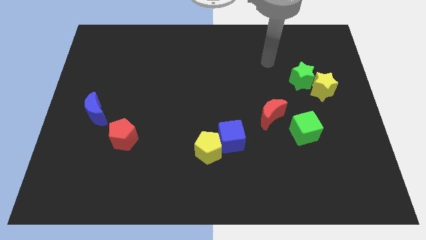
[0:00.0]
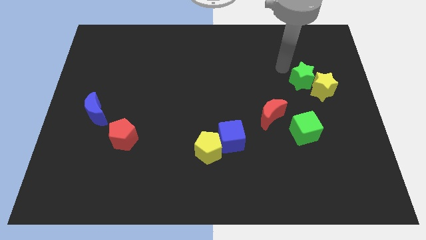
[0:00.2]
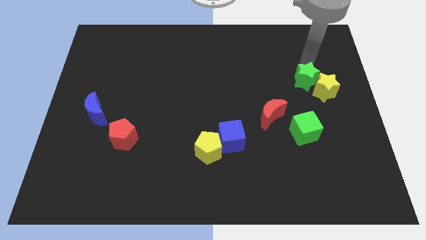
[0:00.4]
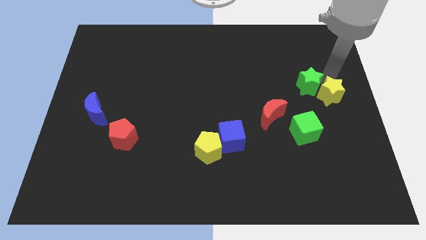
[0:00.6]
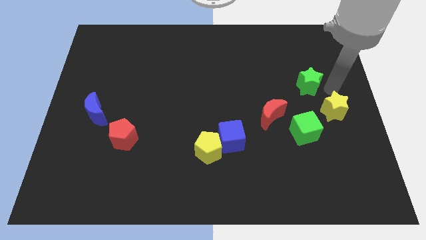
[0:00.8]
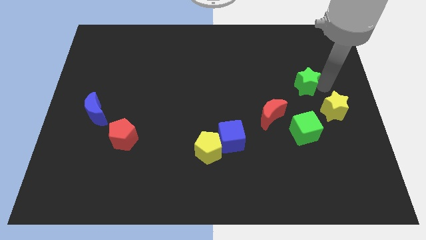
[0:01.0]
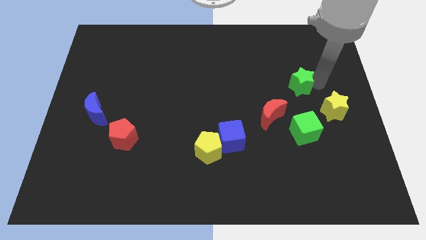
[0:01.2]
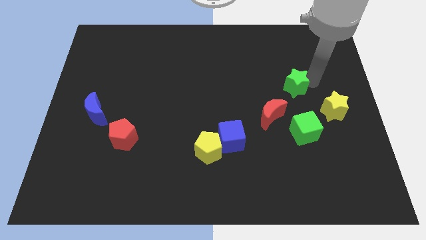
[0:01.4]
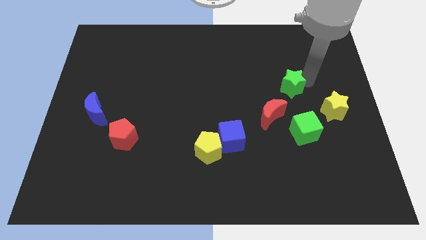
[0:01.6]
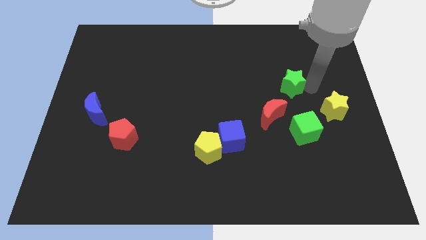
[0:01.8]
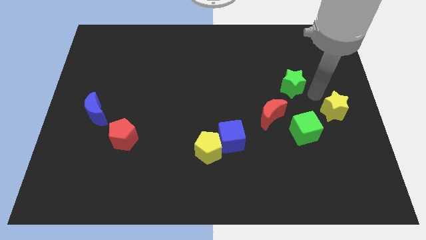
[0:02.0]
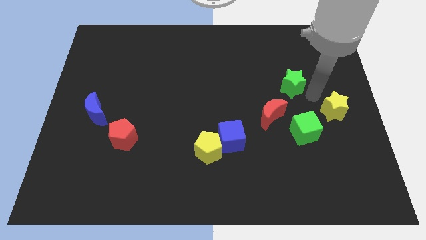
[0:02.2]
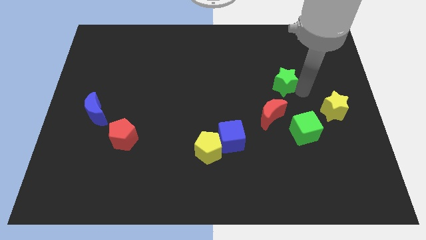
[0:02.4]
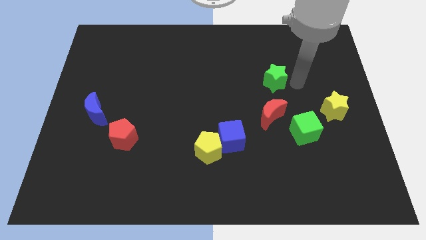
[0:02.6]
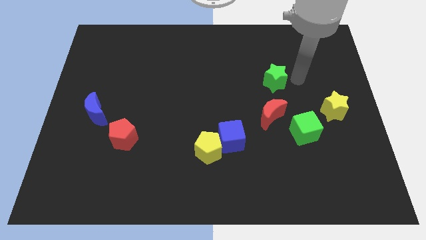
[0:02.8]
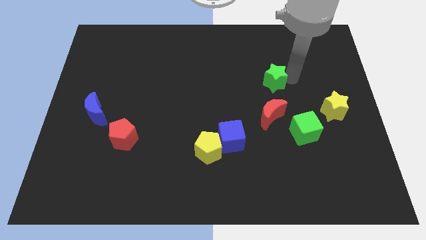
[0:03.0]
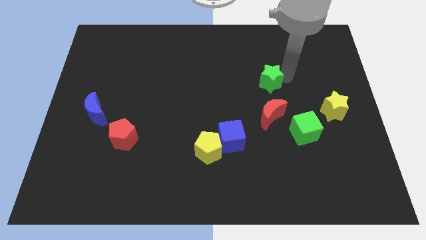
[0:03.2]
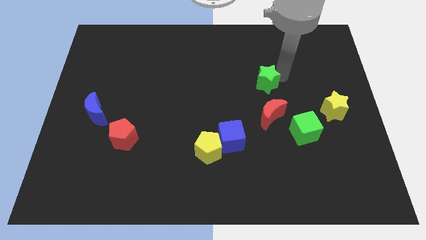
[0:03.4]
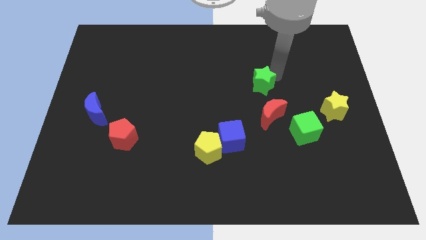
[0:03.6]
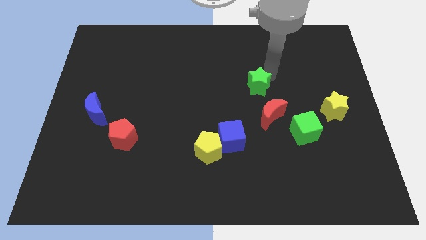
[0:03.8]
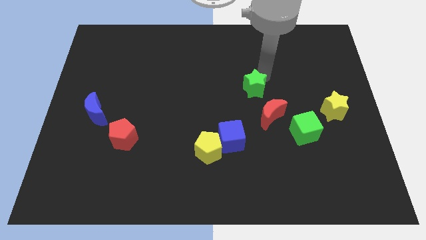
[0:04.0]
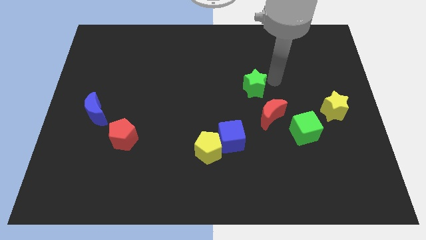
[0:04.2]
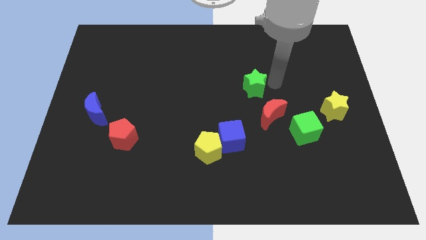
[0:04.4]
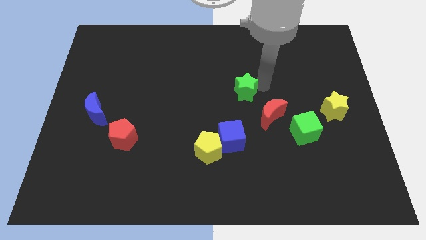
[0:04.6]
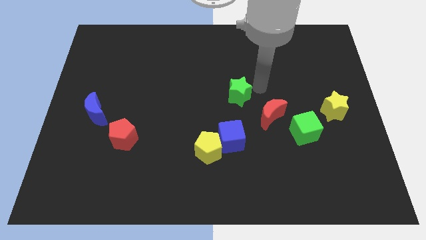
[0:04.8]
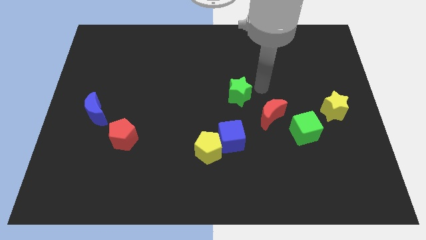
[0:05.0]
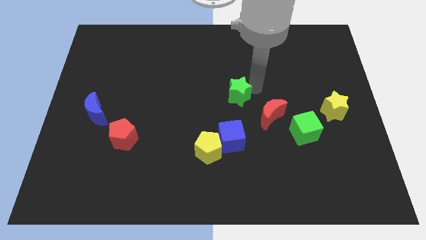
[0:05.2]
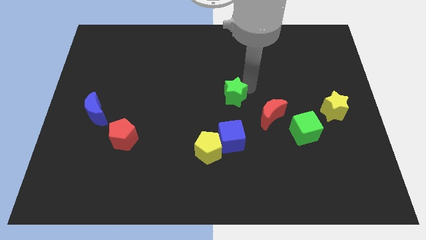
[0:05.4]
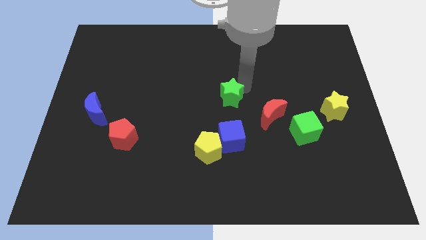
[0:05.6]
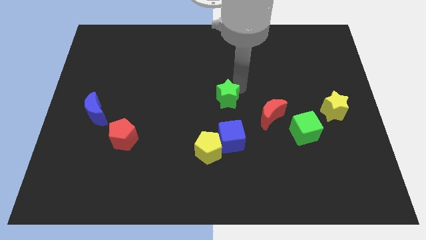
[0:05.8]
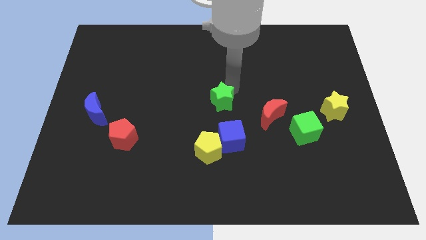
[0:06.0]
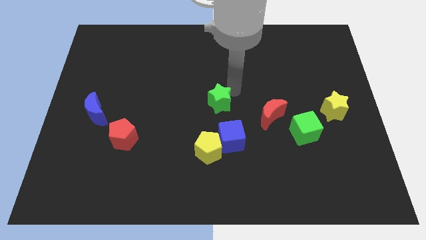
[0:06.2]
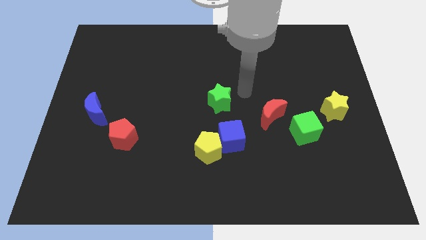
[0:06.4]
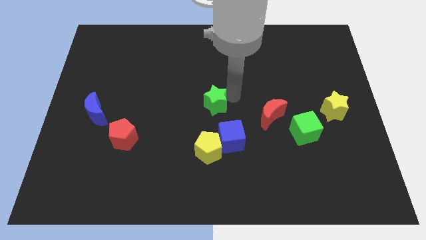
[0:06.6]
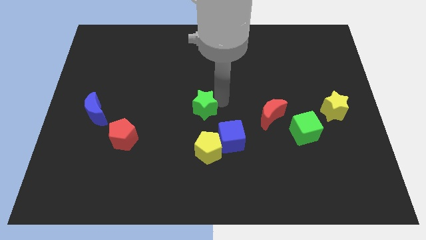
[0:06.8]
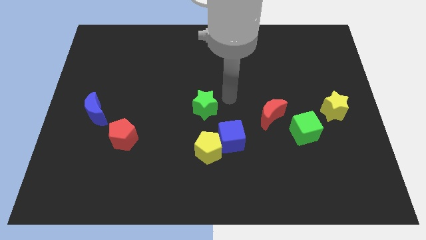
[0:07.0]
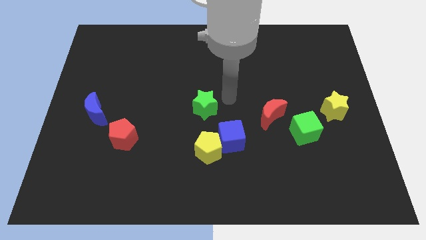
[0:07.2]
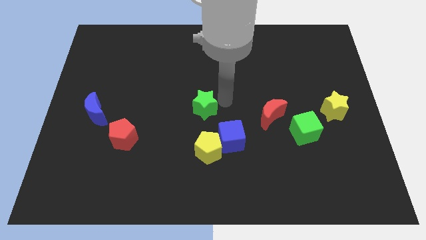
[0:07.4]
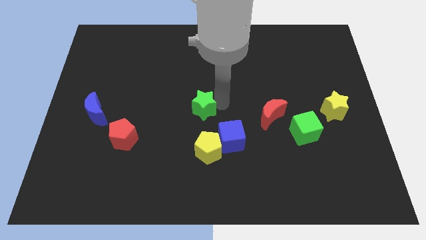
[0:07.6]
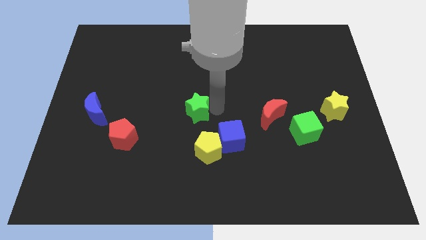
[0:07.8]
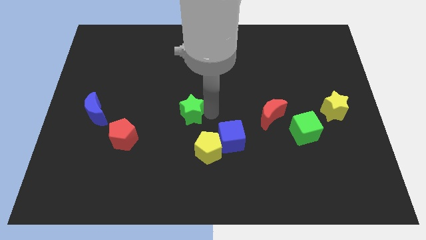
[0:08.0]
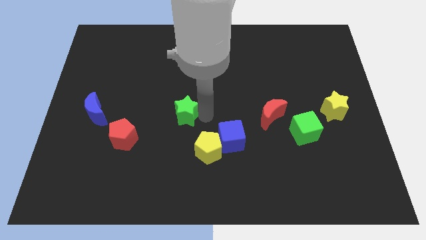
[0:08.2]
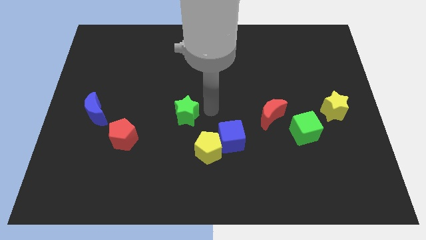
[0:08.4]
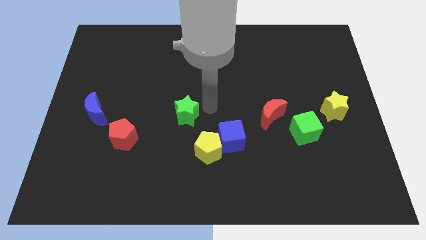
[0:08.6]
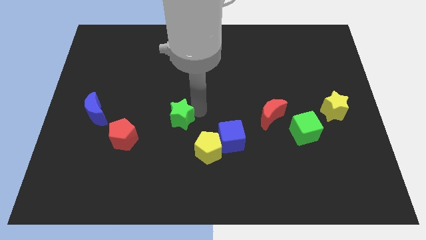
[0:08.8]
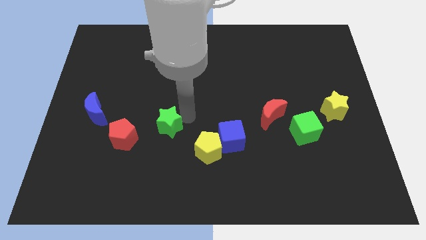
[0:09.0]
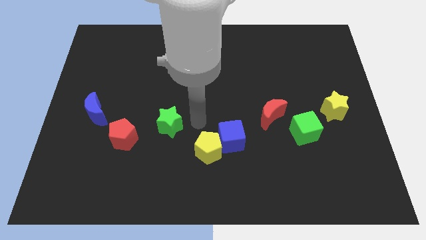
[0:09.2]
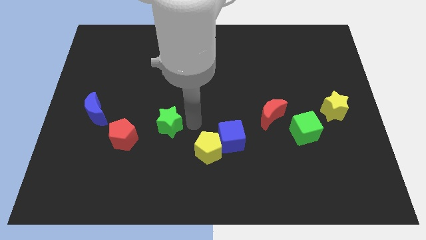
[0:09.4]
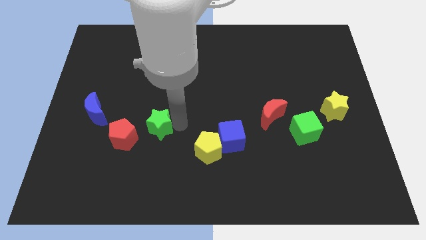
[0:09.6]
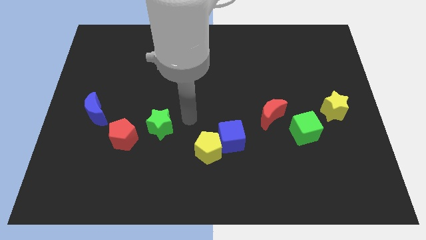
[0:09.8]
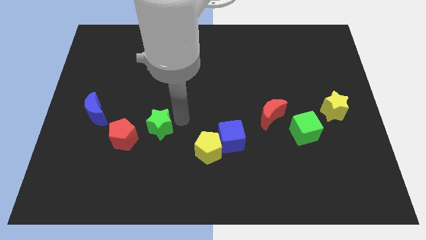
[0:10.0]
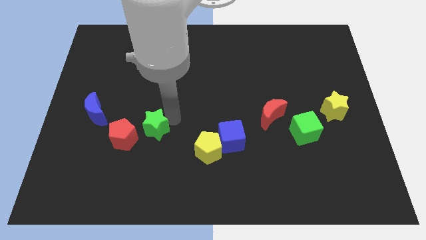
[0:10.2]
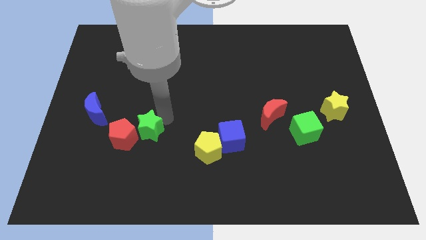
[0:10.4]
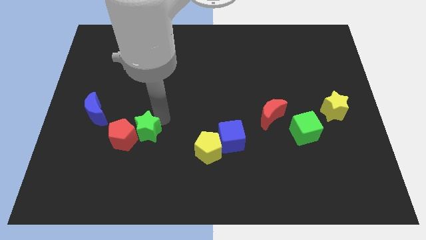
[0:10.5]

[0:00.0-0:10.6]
put the green star next to the red pentagon
